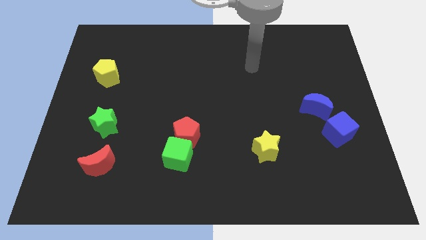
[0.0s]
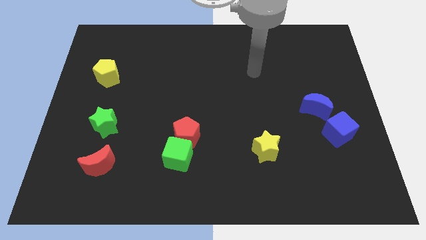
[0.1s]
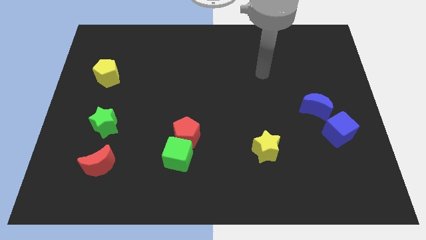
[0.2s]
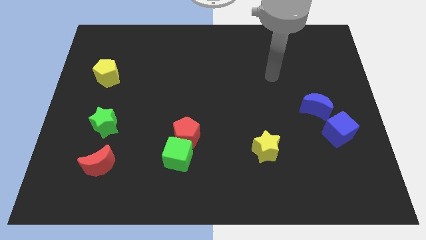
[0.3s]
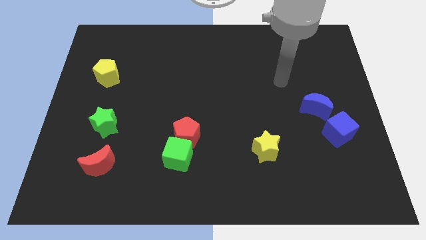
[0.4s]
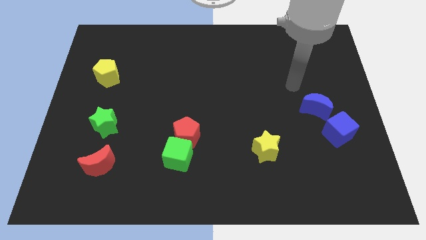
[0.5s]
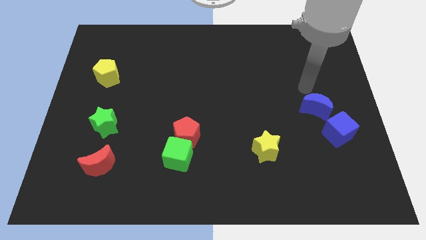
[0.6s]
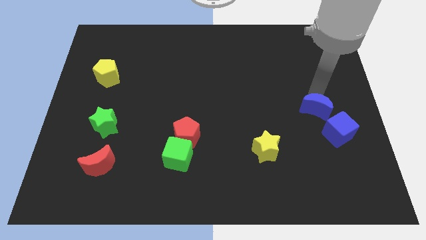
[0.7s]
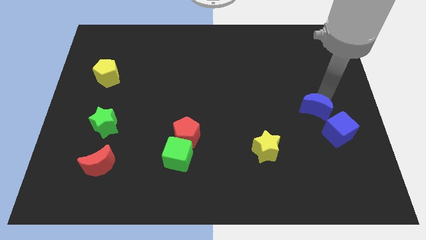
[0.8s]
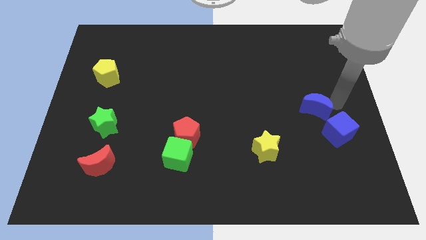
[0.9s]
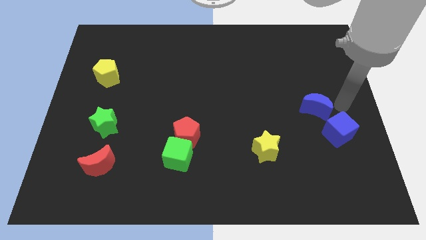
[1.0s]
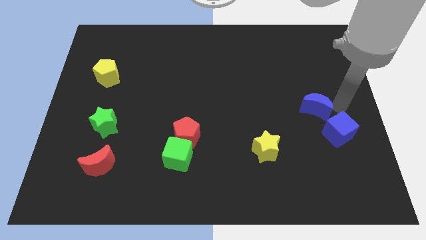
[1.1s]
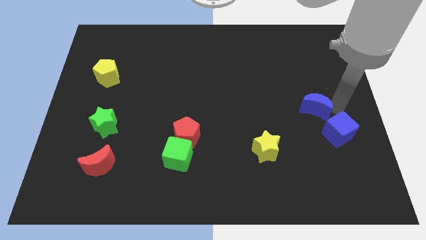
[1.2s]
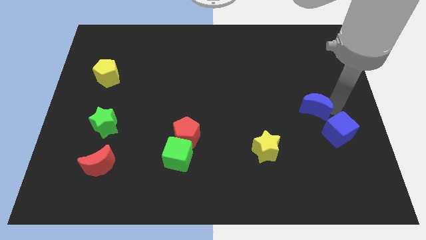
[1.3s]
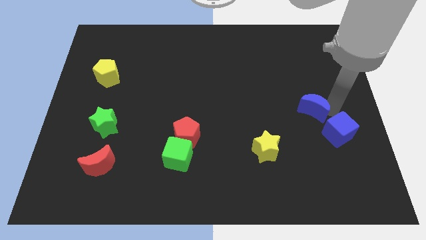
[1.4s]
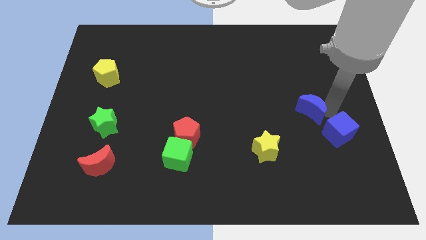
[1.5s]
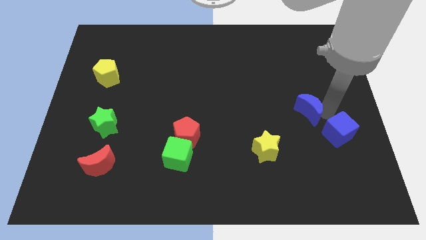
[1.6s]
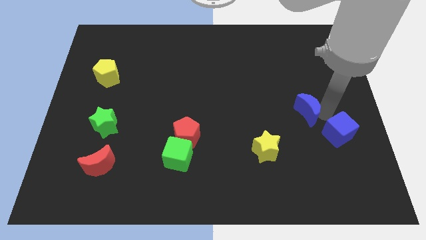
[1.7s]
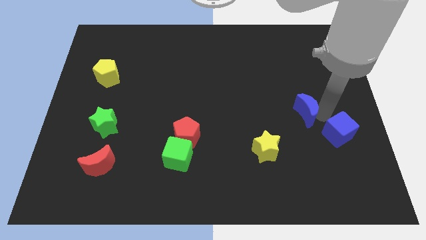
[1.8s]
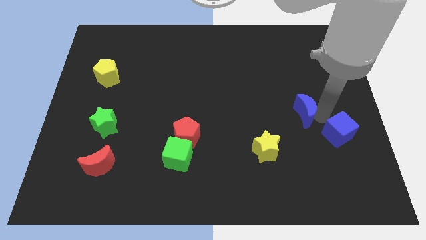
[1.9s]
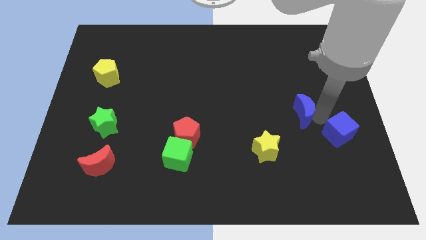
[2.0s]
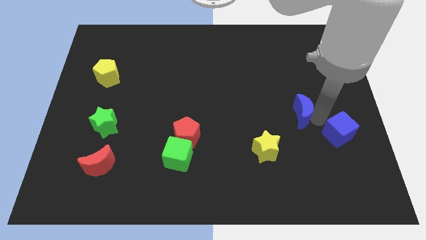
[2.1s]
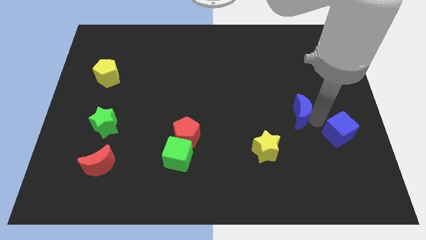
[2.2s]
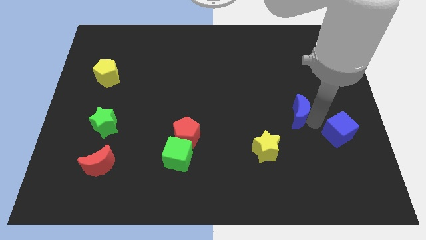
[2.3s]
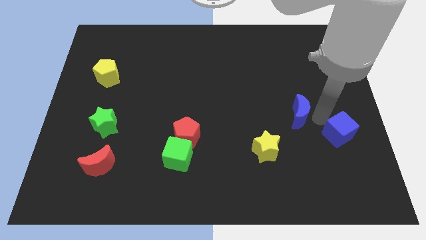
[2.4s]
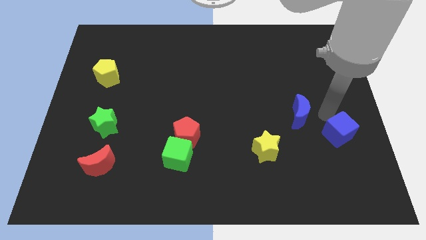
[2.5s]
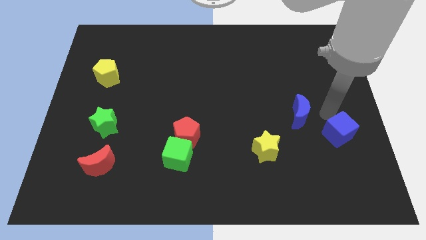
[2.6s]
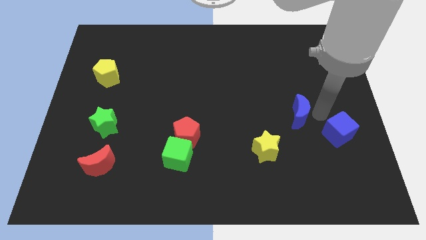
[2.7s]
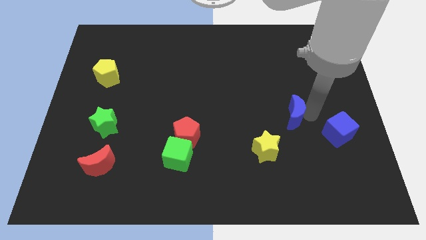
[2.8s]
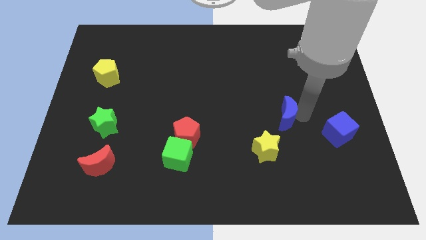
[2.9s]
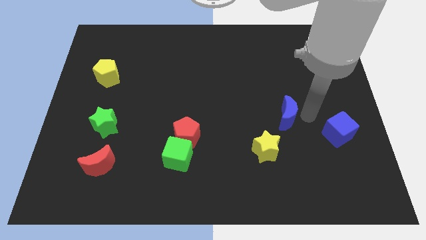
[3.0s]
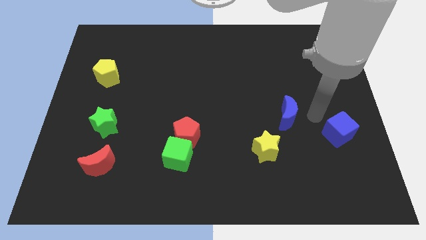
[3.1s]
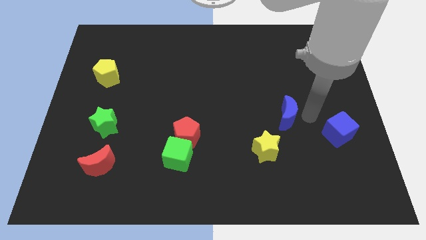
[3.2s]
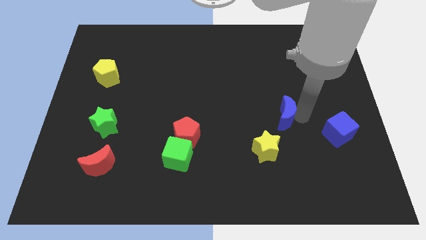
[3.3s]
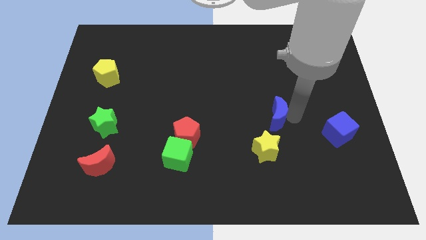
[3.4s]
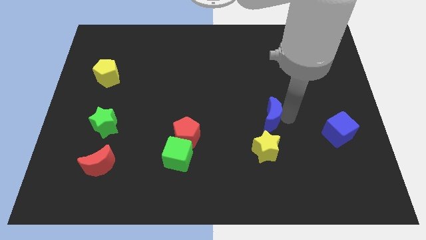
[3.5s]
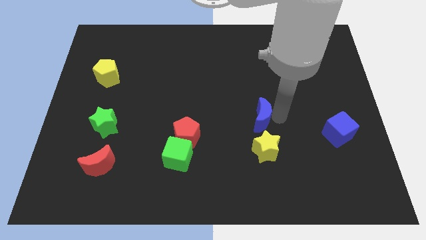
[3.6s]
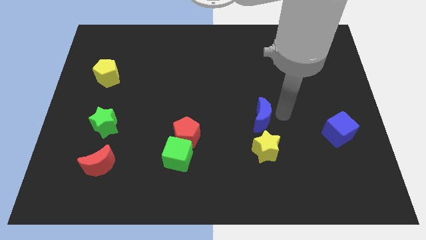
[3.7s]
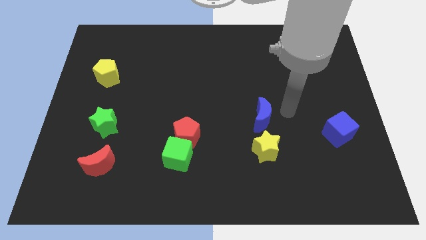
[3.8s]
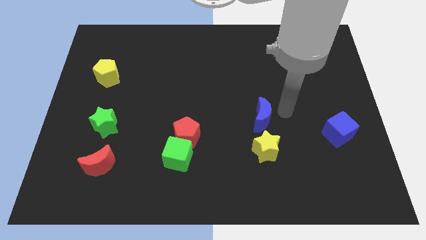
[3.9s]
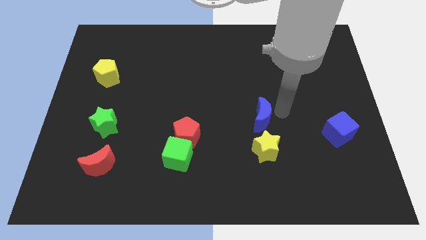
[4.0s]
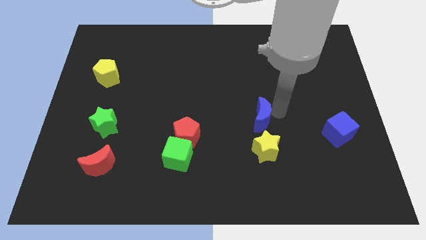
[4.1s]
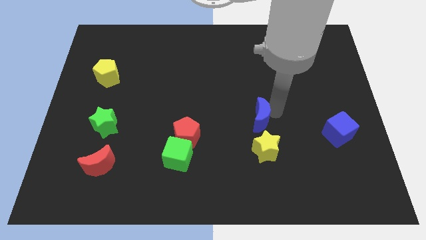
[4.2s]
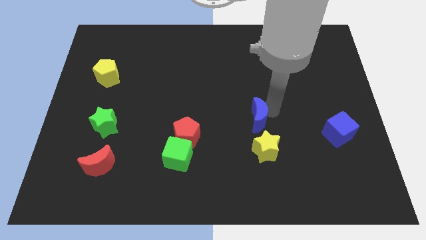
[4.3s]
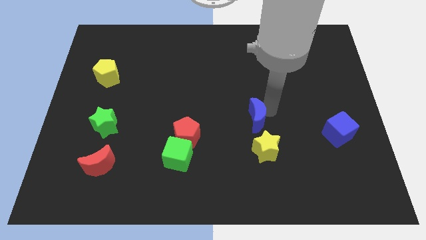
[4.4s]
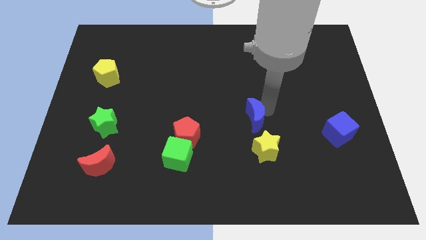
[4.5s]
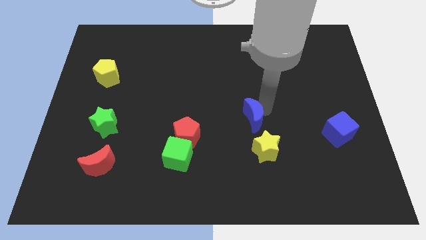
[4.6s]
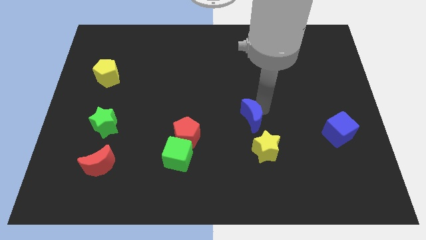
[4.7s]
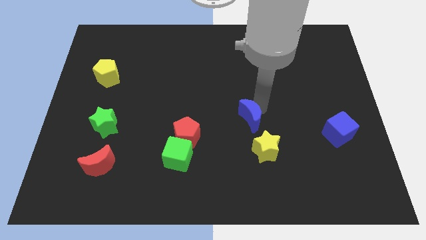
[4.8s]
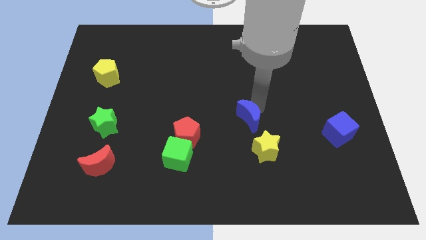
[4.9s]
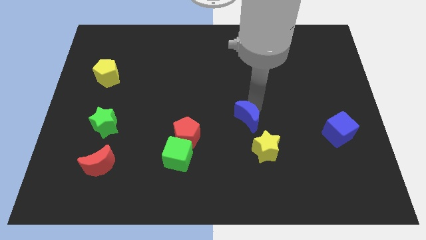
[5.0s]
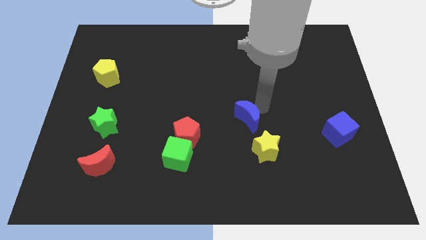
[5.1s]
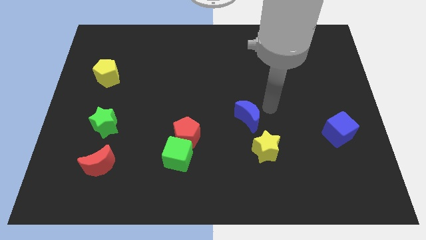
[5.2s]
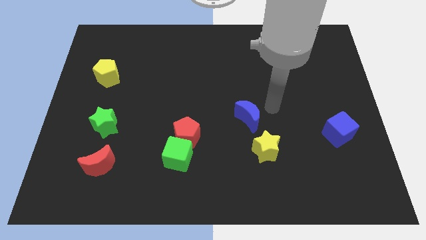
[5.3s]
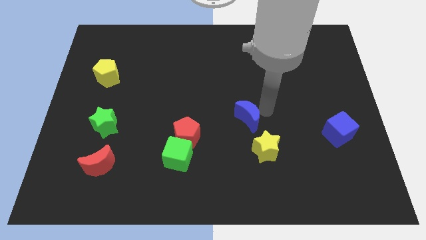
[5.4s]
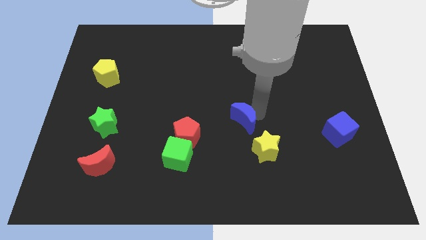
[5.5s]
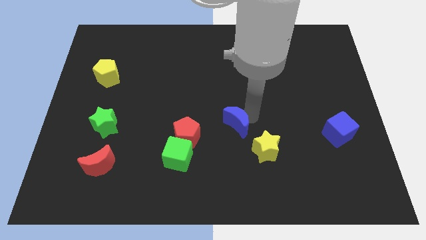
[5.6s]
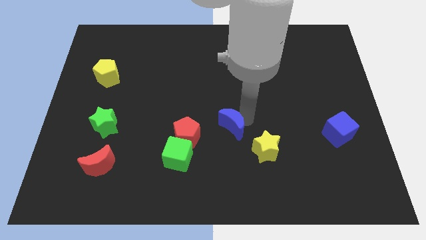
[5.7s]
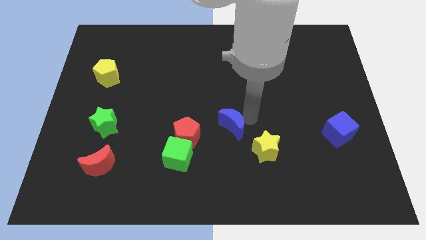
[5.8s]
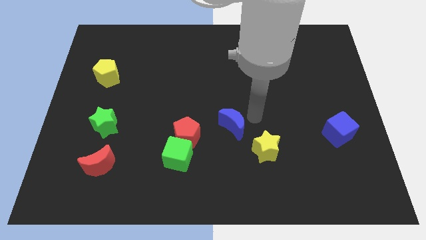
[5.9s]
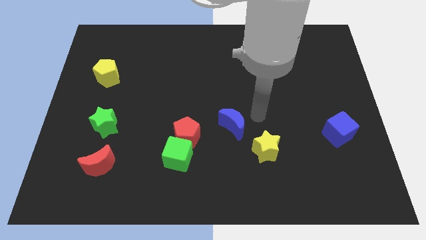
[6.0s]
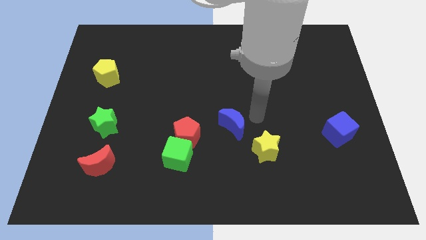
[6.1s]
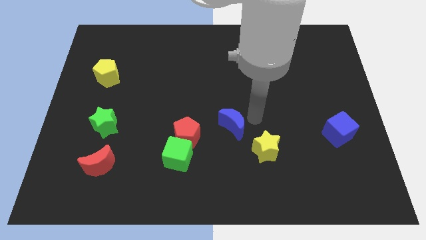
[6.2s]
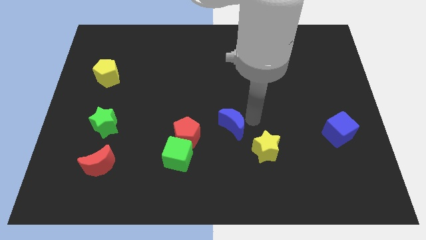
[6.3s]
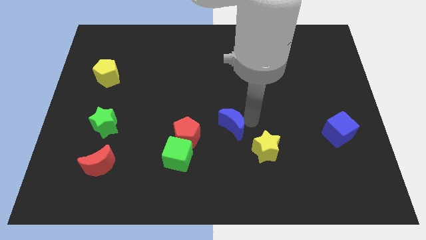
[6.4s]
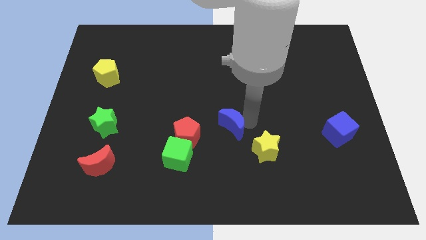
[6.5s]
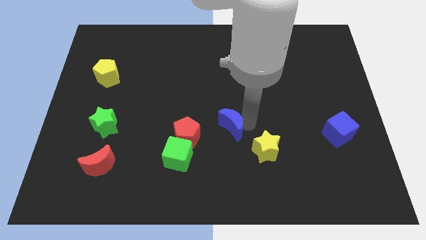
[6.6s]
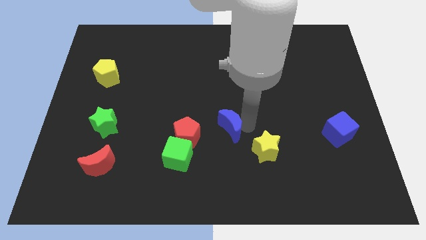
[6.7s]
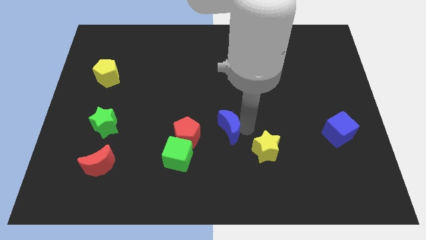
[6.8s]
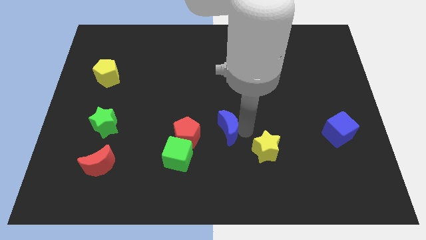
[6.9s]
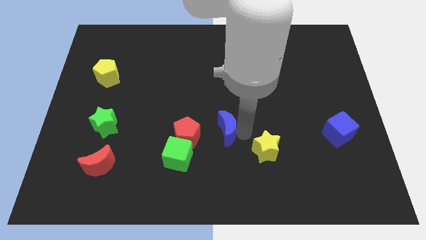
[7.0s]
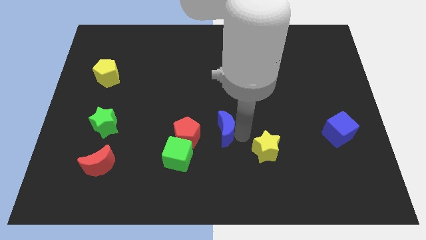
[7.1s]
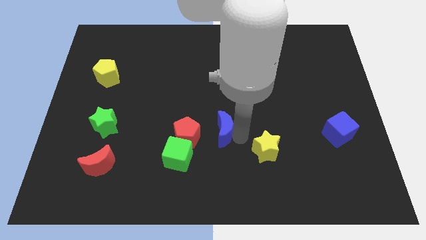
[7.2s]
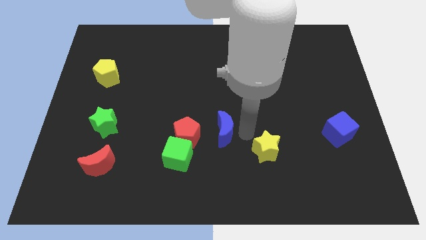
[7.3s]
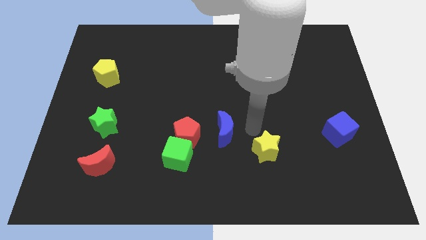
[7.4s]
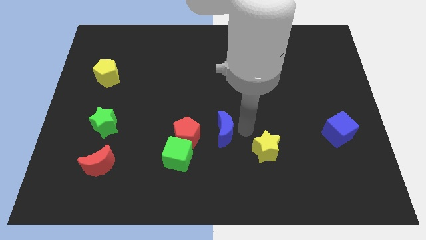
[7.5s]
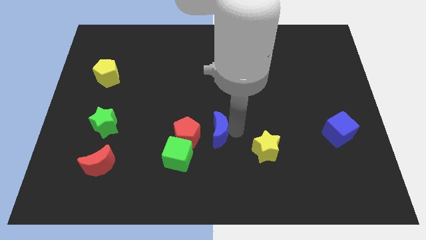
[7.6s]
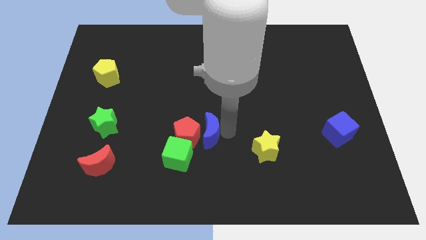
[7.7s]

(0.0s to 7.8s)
push the blue moon to the red pentagon
